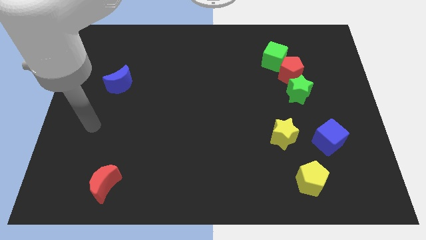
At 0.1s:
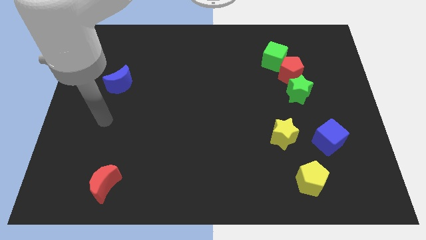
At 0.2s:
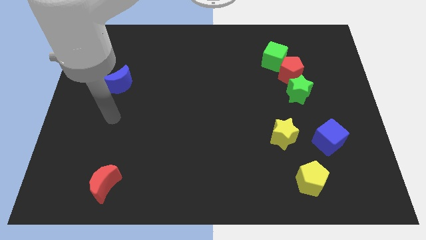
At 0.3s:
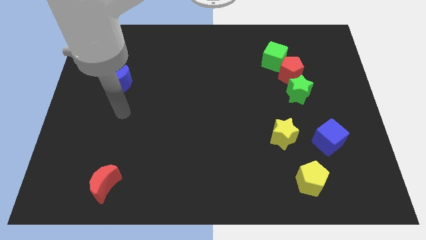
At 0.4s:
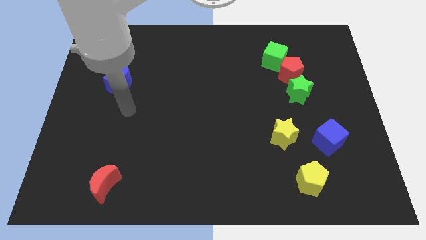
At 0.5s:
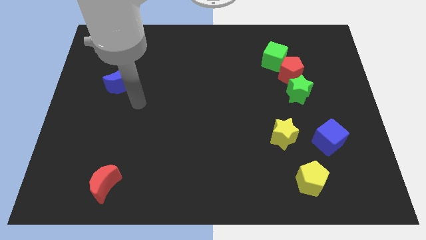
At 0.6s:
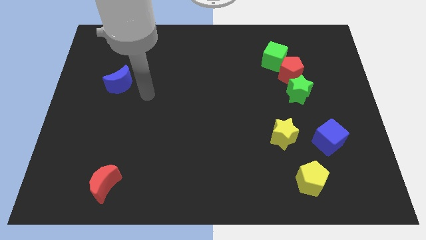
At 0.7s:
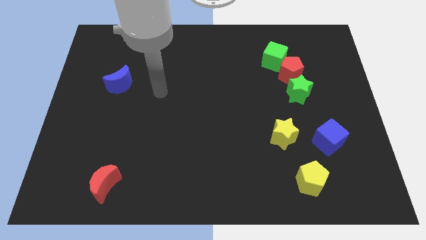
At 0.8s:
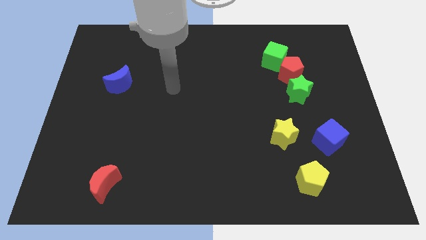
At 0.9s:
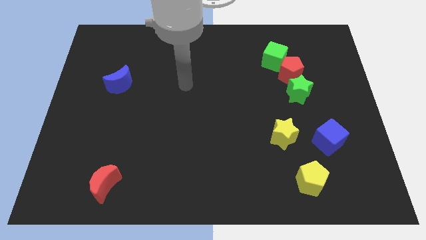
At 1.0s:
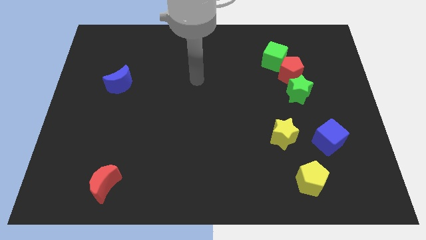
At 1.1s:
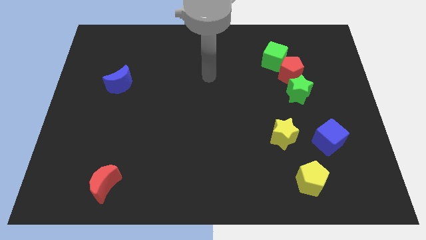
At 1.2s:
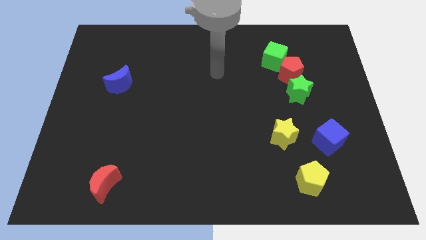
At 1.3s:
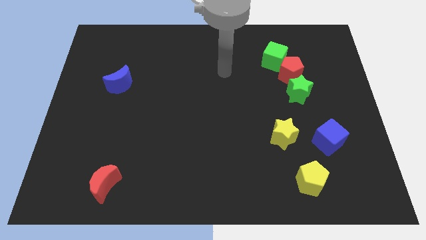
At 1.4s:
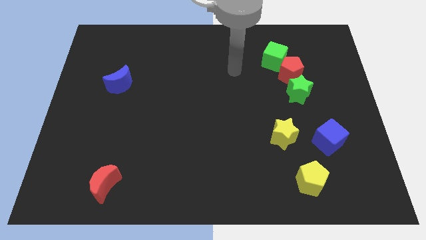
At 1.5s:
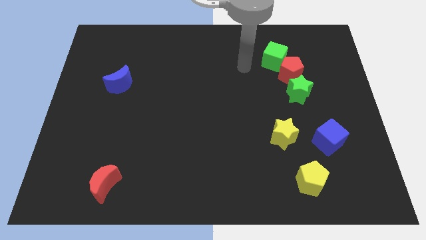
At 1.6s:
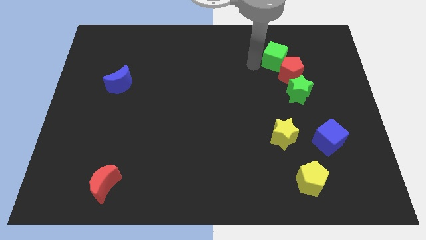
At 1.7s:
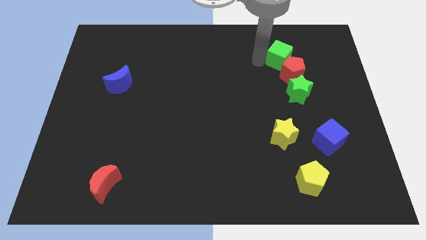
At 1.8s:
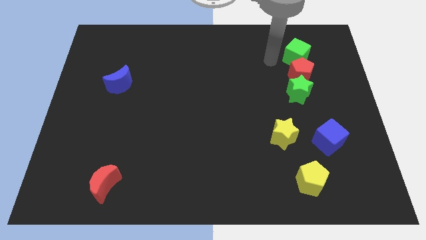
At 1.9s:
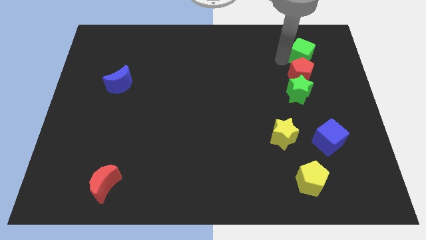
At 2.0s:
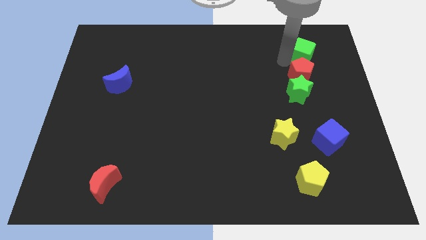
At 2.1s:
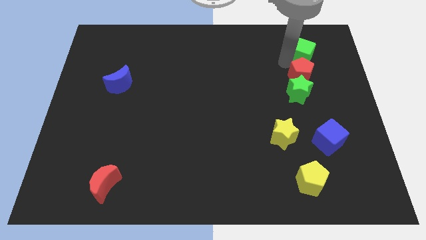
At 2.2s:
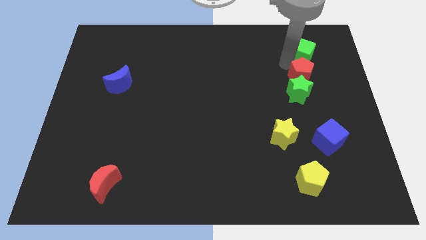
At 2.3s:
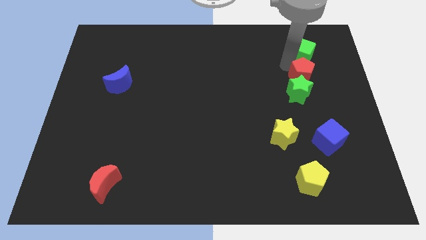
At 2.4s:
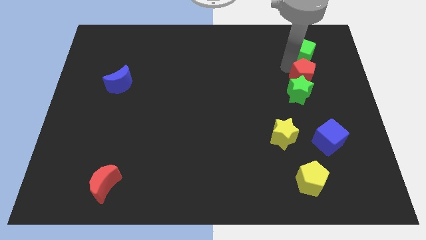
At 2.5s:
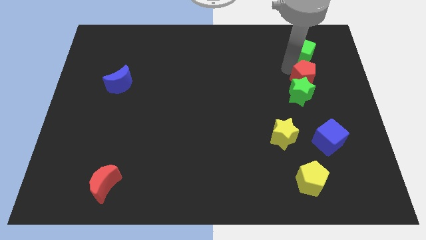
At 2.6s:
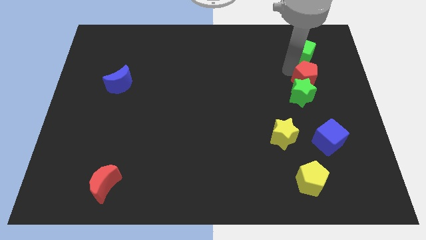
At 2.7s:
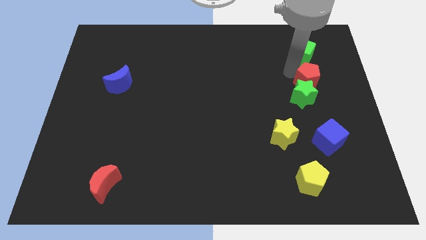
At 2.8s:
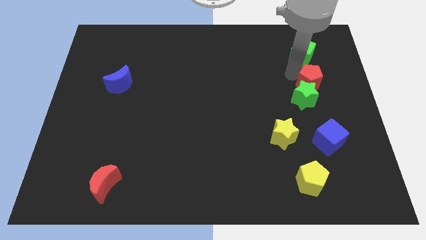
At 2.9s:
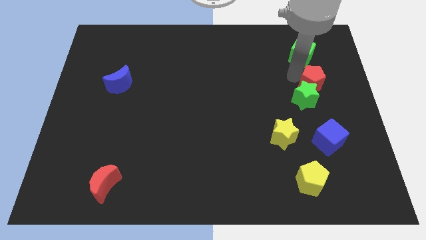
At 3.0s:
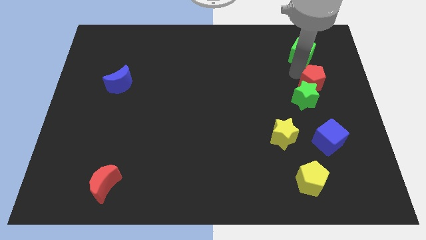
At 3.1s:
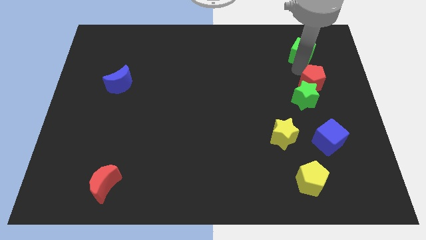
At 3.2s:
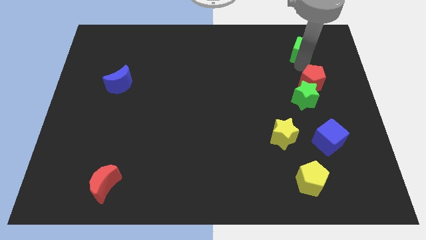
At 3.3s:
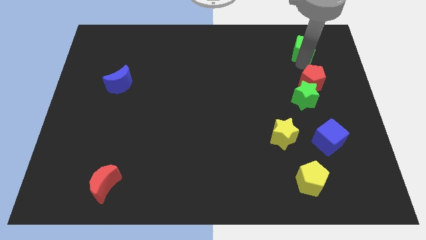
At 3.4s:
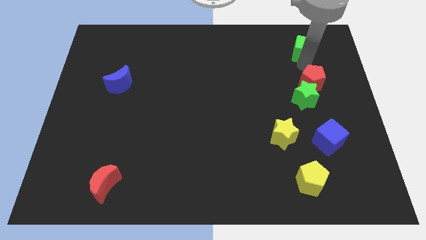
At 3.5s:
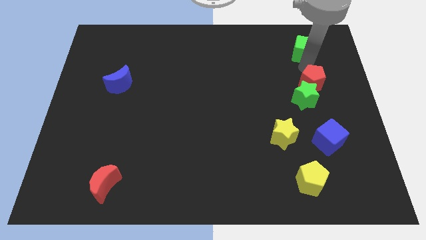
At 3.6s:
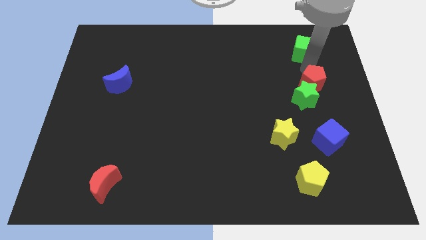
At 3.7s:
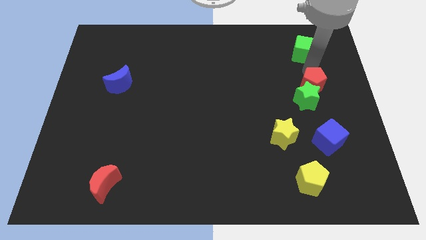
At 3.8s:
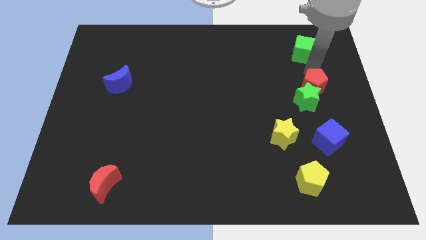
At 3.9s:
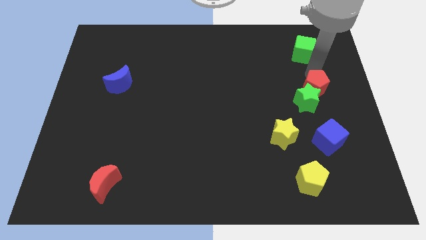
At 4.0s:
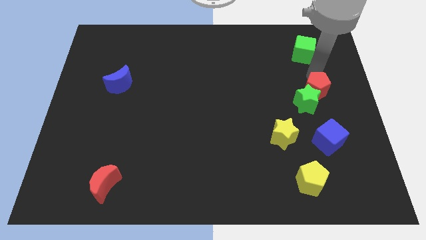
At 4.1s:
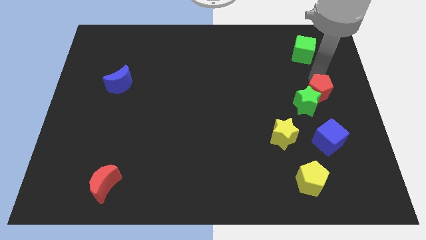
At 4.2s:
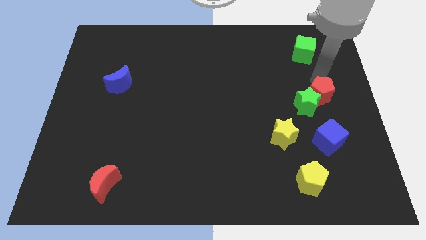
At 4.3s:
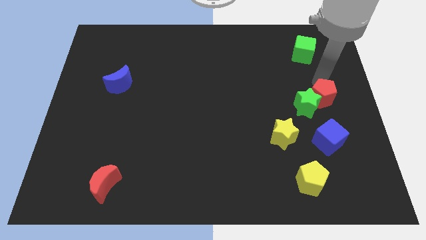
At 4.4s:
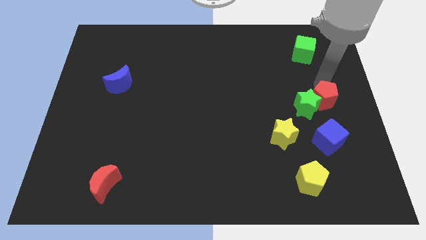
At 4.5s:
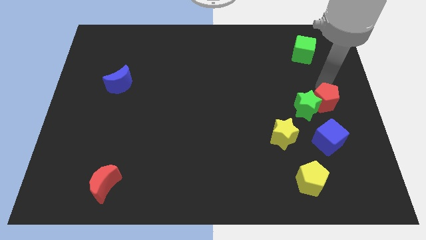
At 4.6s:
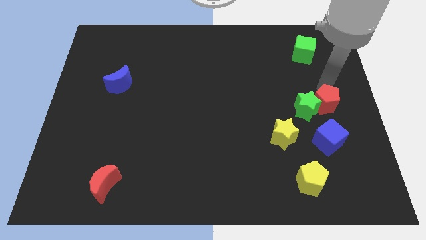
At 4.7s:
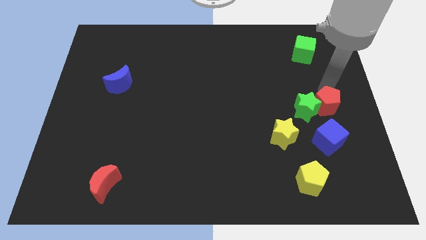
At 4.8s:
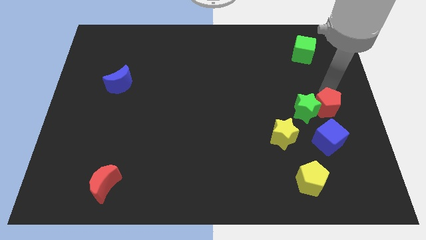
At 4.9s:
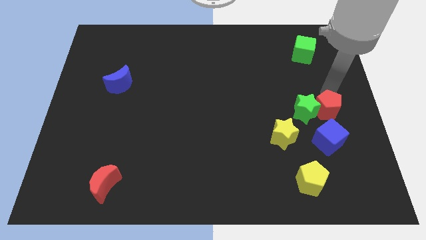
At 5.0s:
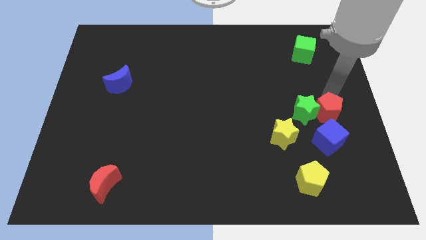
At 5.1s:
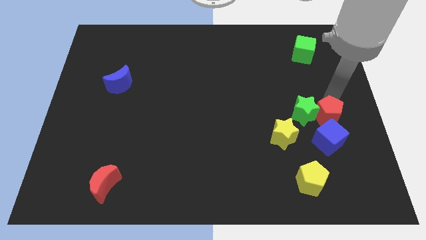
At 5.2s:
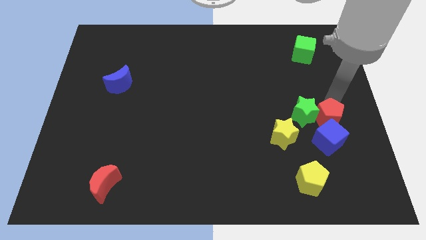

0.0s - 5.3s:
slide the red pentagon close to the blue cube

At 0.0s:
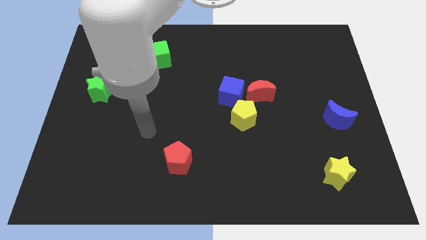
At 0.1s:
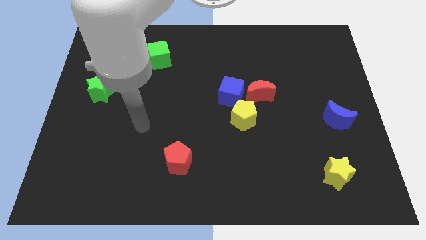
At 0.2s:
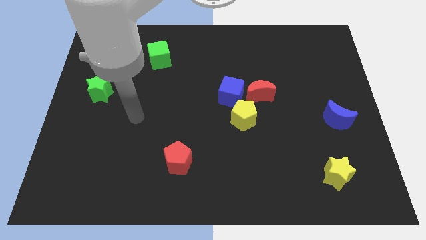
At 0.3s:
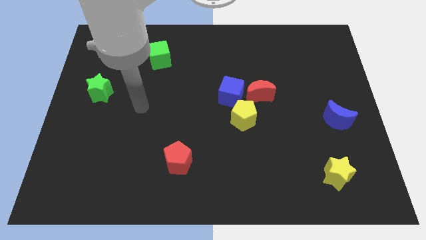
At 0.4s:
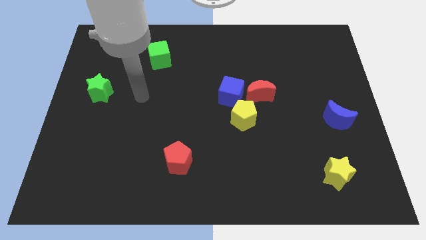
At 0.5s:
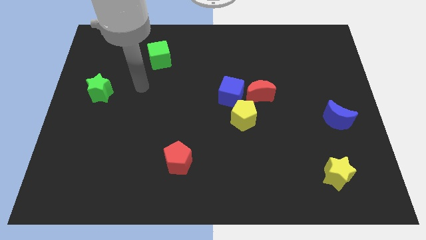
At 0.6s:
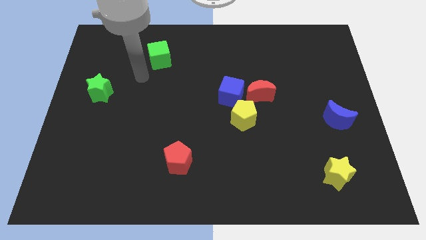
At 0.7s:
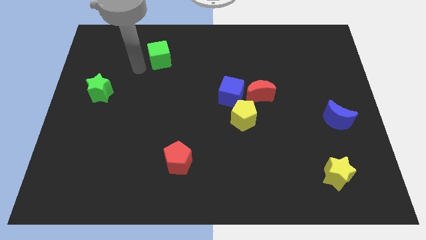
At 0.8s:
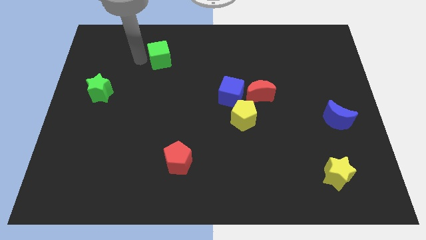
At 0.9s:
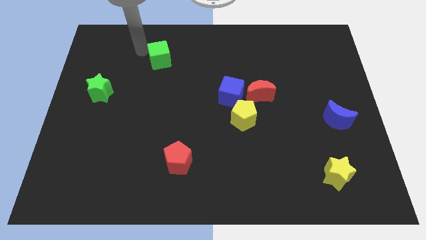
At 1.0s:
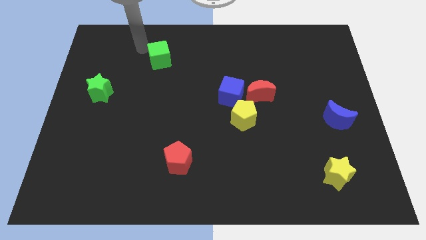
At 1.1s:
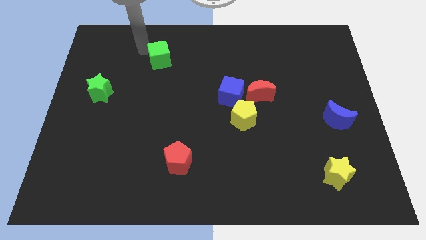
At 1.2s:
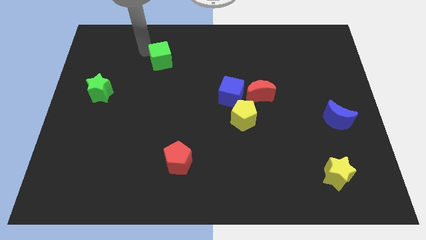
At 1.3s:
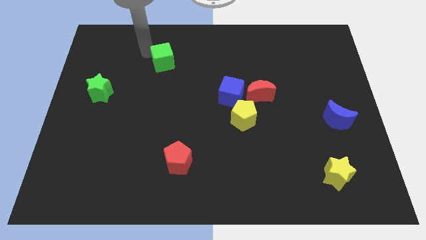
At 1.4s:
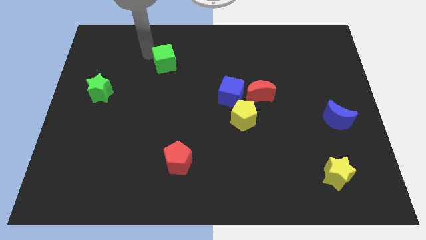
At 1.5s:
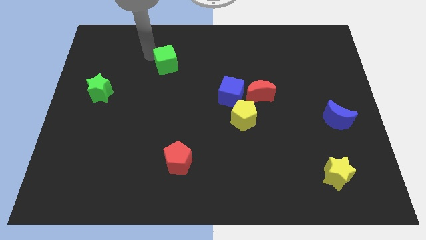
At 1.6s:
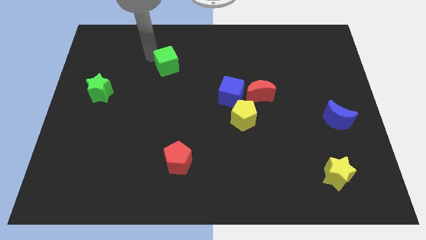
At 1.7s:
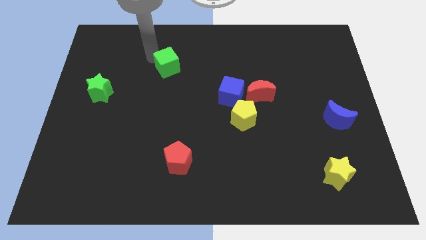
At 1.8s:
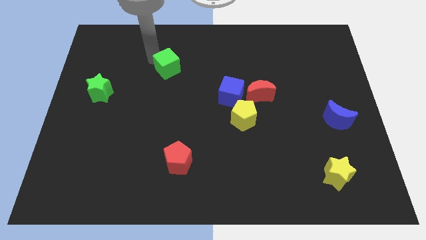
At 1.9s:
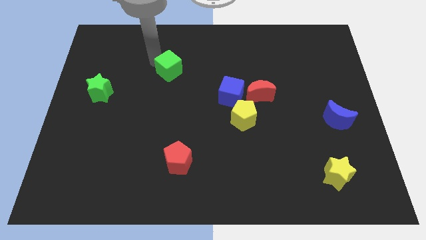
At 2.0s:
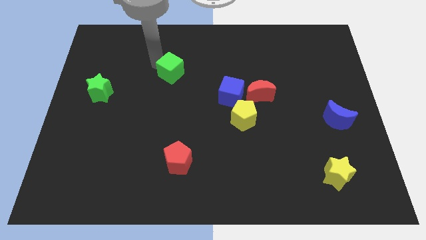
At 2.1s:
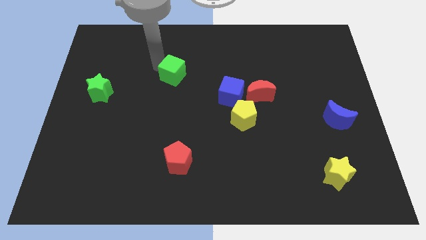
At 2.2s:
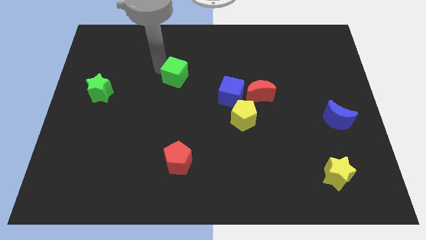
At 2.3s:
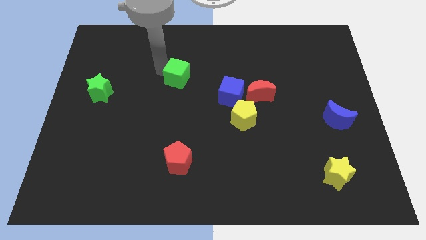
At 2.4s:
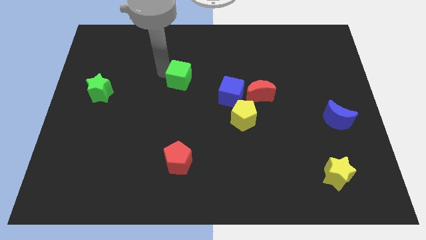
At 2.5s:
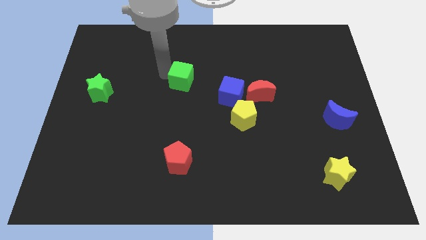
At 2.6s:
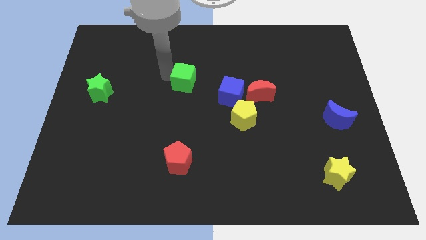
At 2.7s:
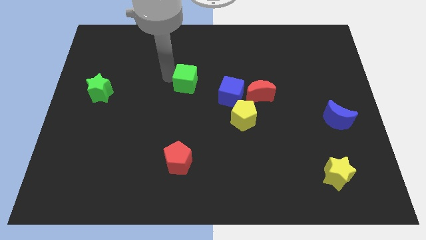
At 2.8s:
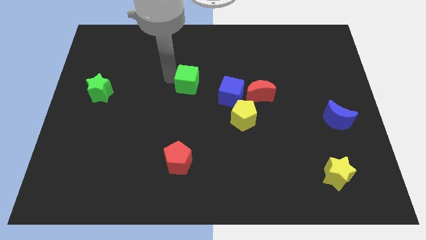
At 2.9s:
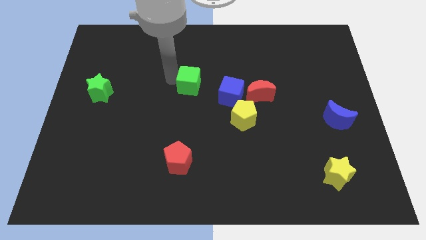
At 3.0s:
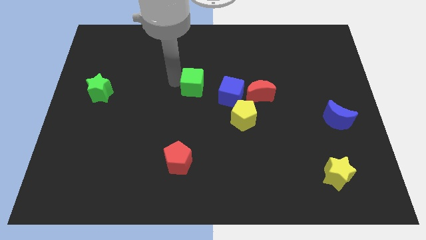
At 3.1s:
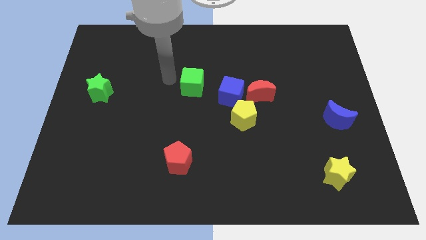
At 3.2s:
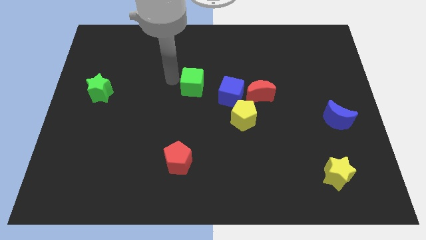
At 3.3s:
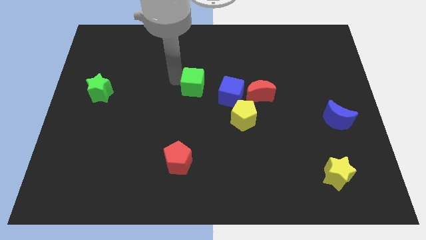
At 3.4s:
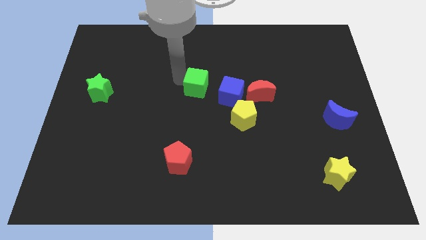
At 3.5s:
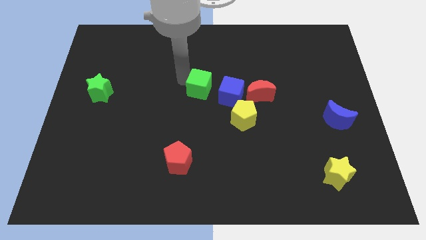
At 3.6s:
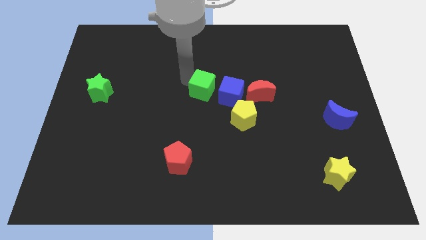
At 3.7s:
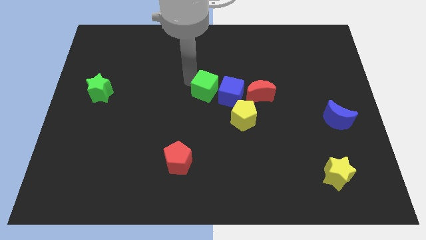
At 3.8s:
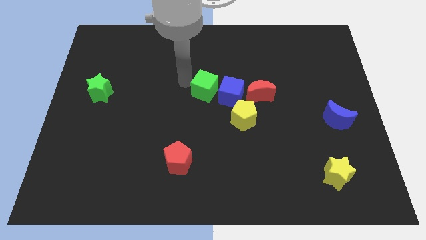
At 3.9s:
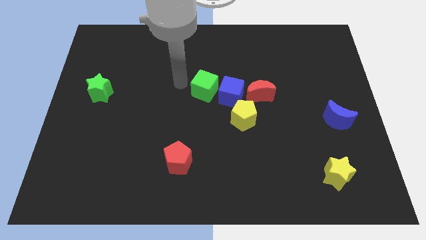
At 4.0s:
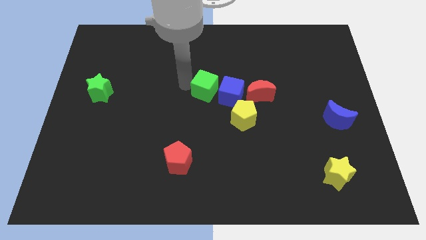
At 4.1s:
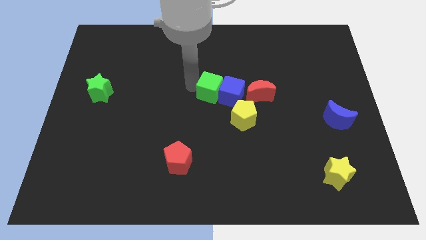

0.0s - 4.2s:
move the green cube to the blue cube
